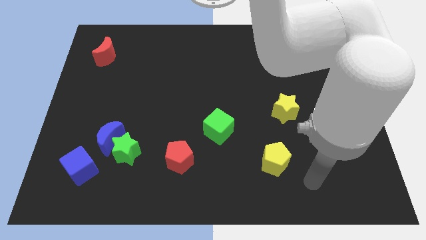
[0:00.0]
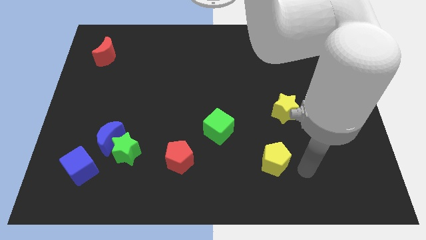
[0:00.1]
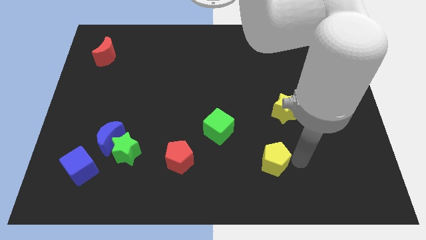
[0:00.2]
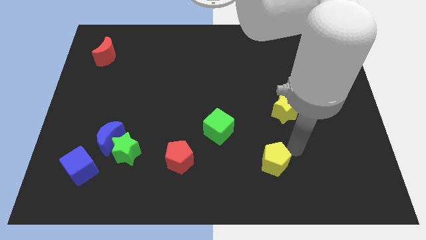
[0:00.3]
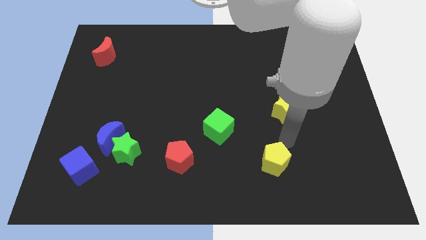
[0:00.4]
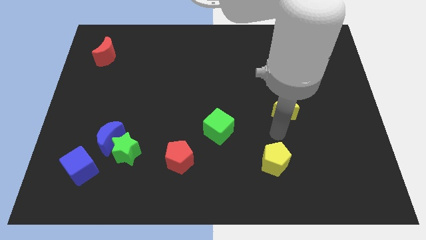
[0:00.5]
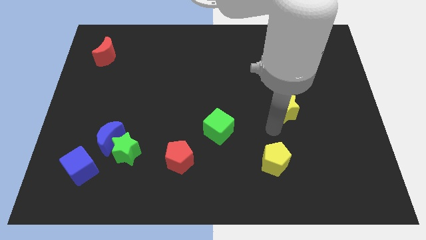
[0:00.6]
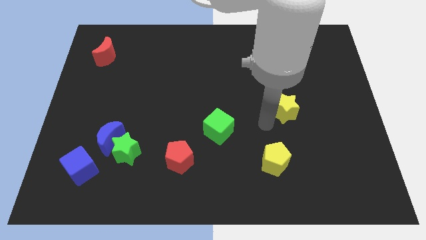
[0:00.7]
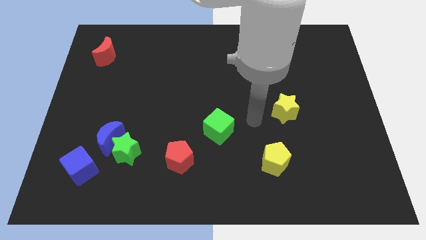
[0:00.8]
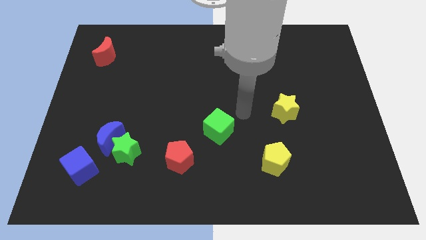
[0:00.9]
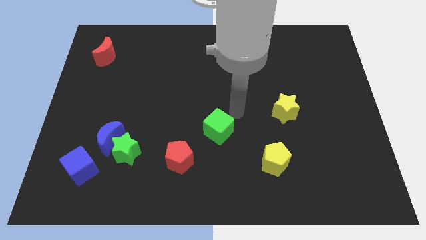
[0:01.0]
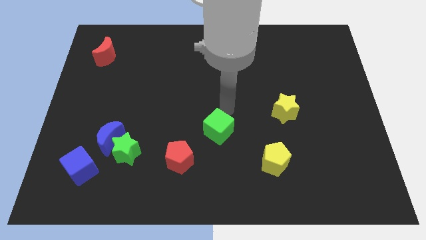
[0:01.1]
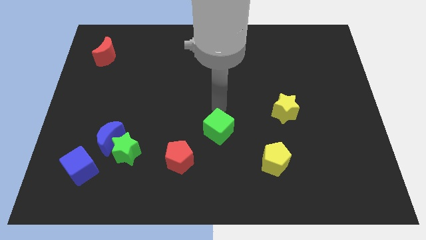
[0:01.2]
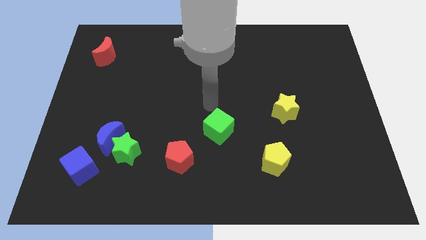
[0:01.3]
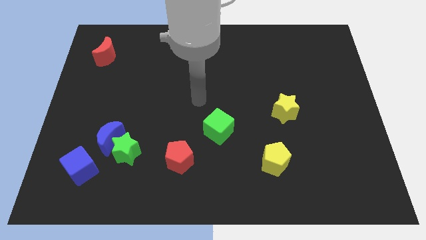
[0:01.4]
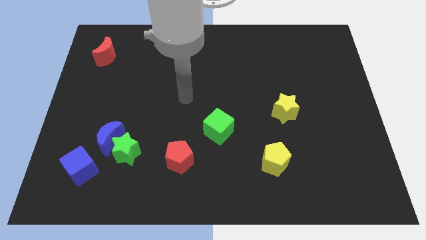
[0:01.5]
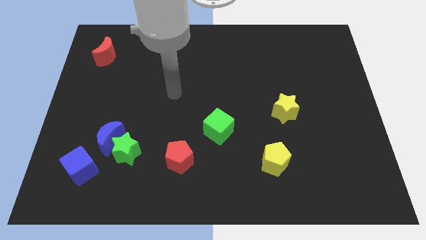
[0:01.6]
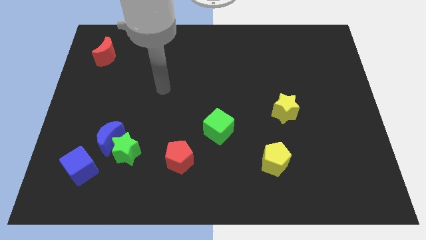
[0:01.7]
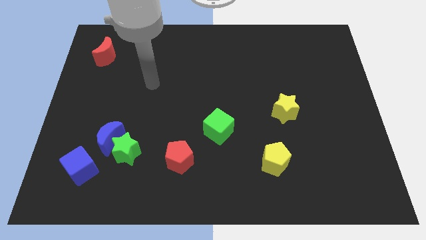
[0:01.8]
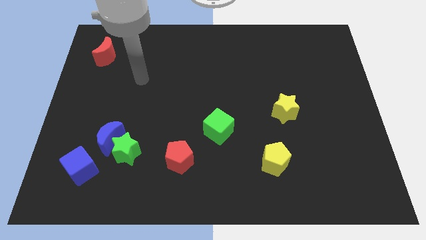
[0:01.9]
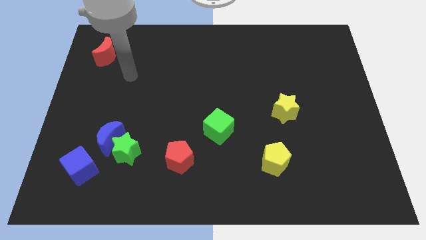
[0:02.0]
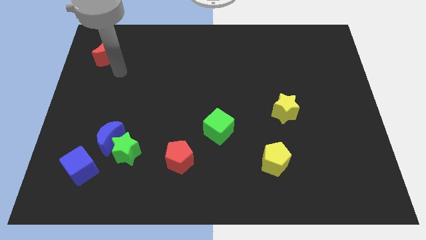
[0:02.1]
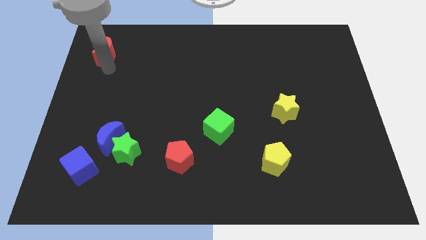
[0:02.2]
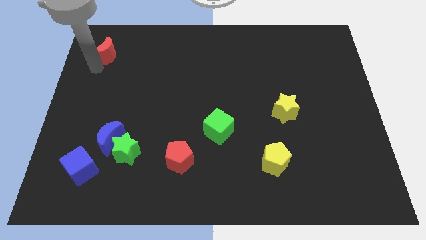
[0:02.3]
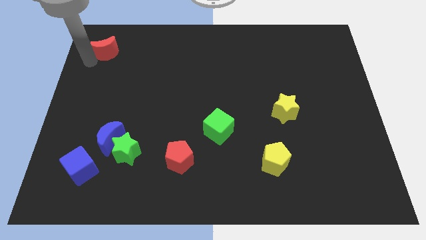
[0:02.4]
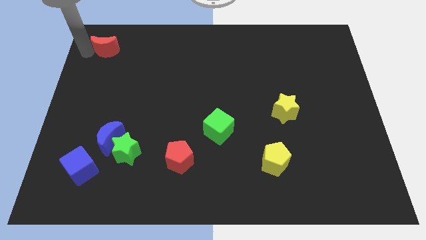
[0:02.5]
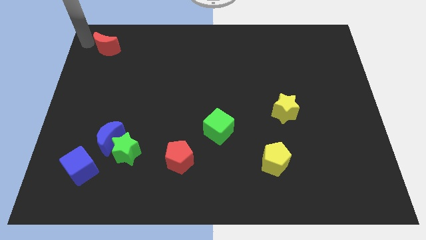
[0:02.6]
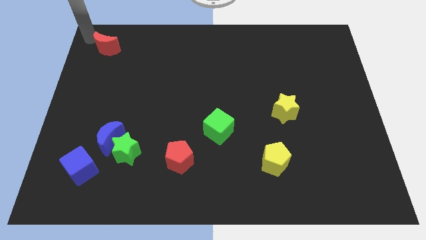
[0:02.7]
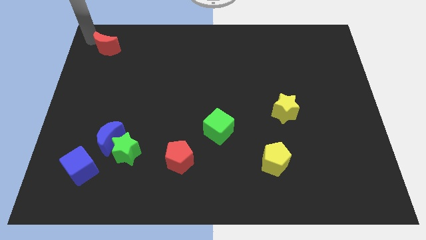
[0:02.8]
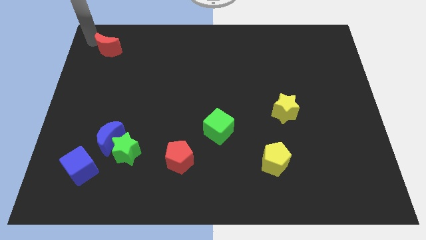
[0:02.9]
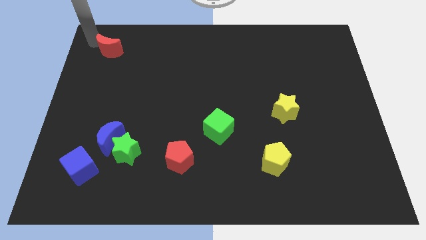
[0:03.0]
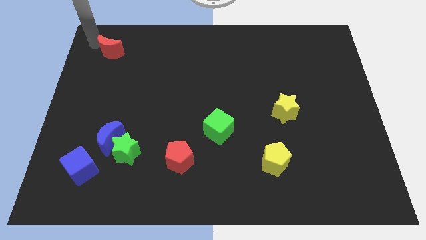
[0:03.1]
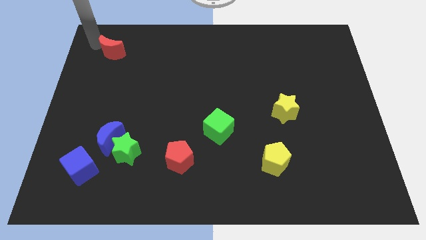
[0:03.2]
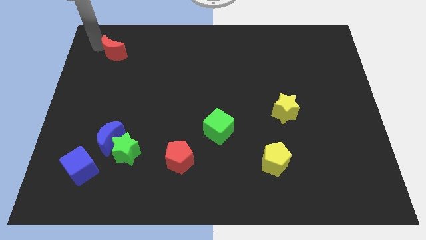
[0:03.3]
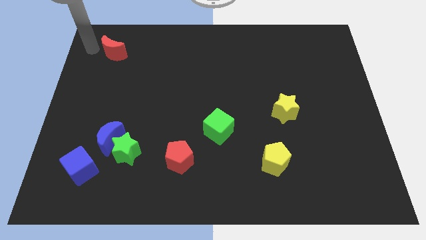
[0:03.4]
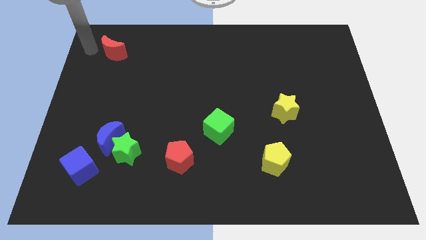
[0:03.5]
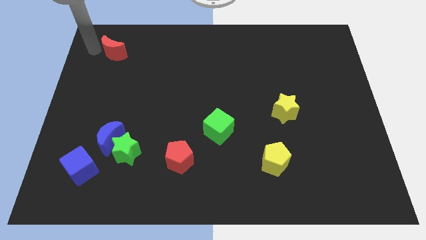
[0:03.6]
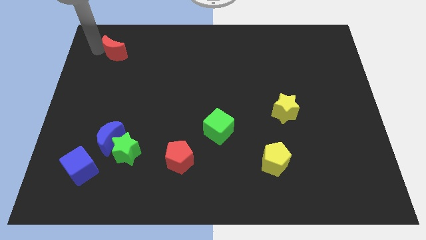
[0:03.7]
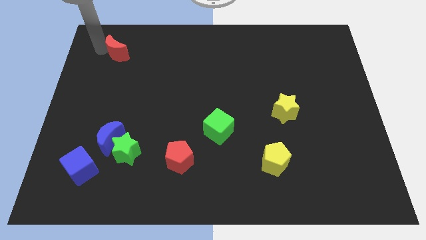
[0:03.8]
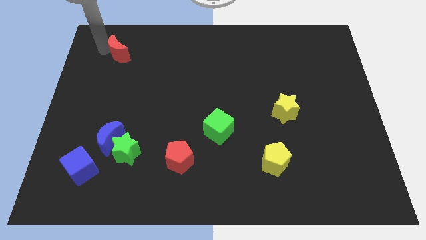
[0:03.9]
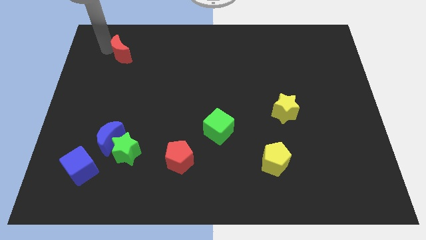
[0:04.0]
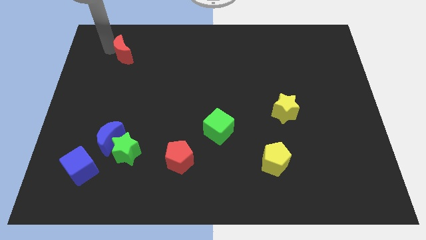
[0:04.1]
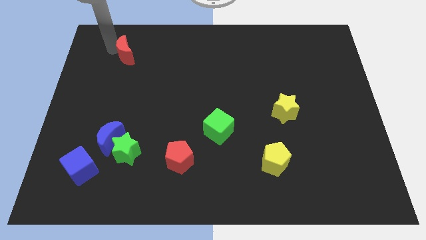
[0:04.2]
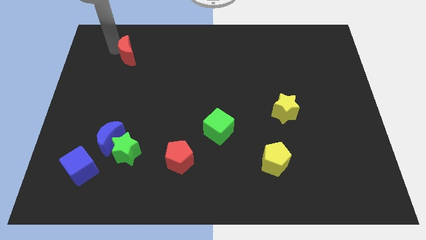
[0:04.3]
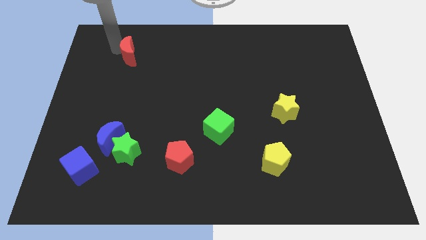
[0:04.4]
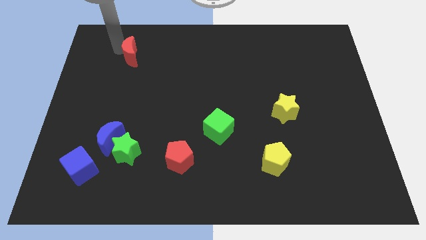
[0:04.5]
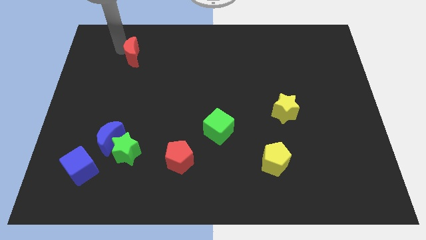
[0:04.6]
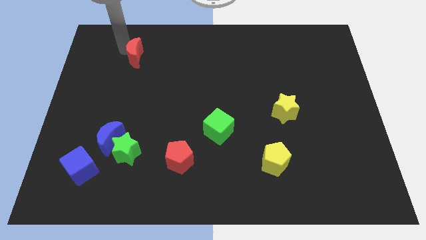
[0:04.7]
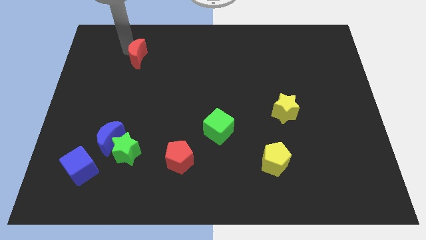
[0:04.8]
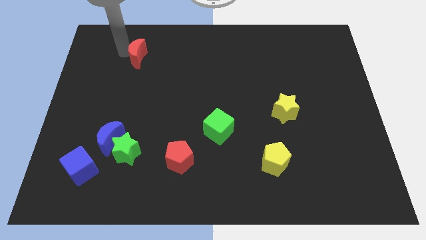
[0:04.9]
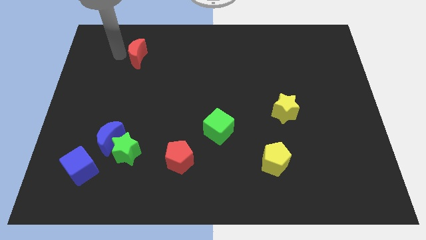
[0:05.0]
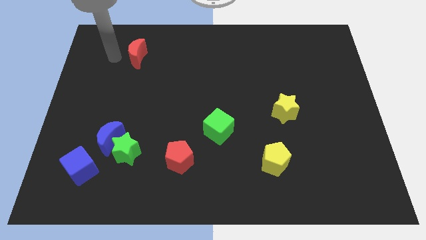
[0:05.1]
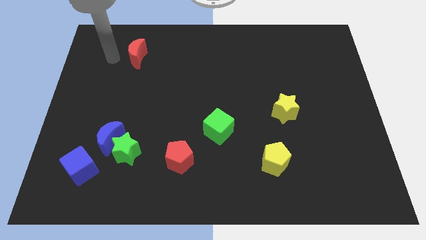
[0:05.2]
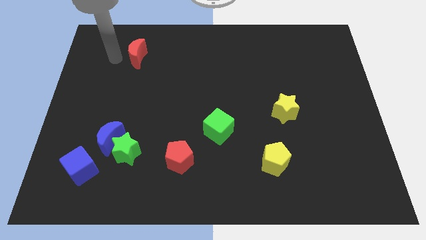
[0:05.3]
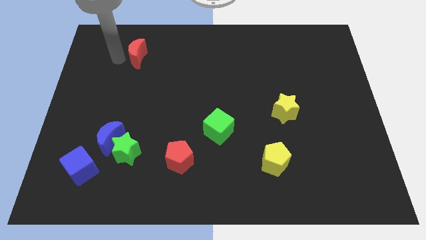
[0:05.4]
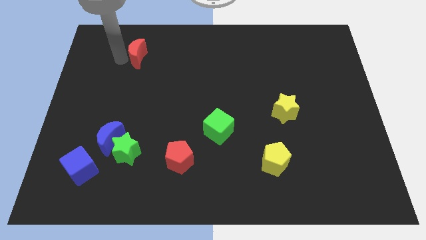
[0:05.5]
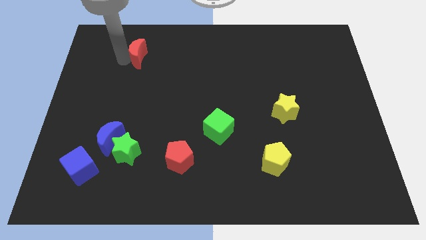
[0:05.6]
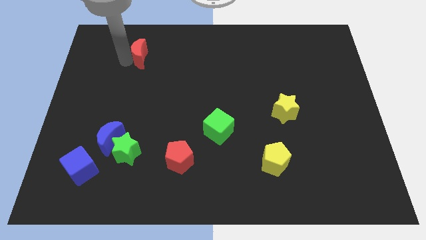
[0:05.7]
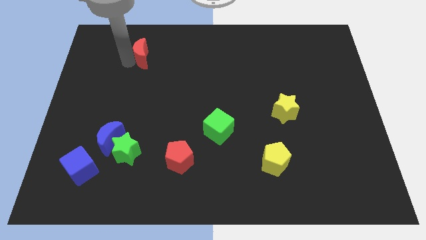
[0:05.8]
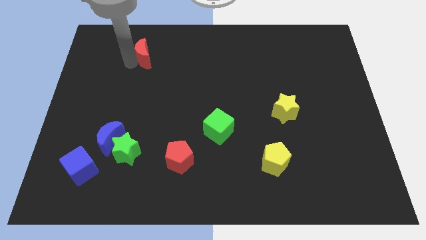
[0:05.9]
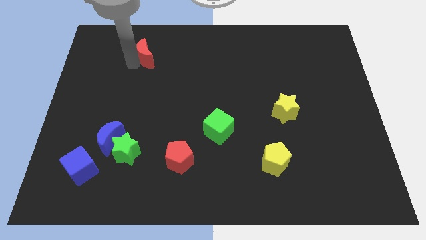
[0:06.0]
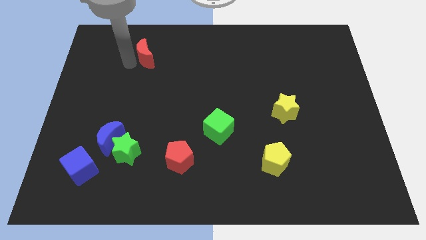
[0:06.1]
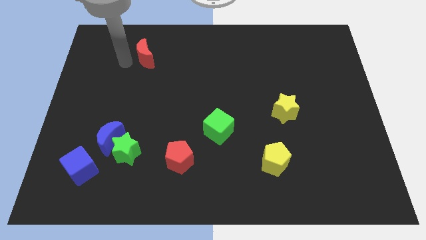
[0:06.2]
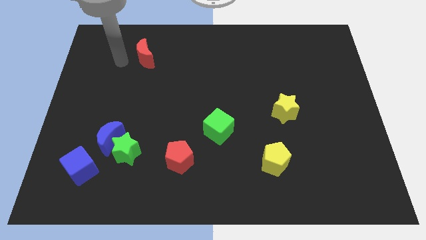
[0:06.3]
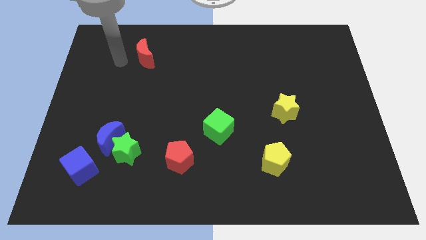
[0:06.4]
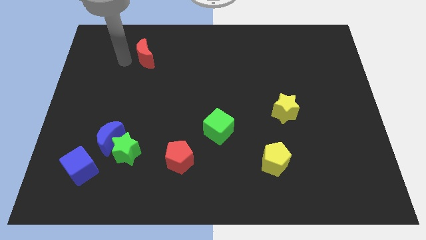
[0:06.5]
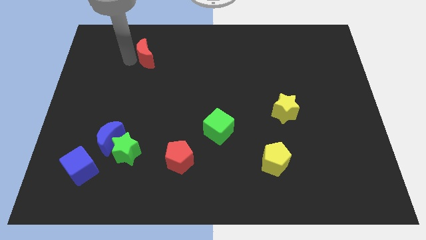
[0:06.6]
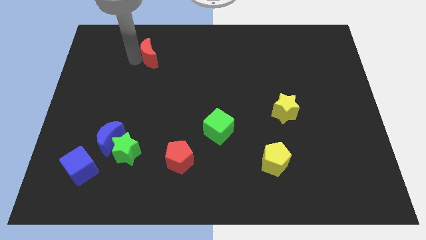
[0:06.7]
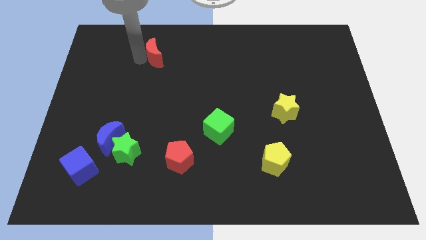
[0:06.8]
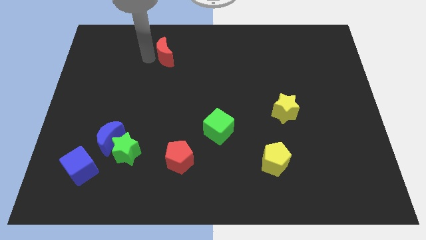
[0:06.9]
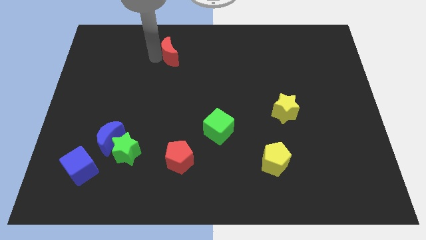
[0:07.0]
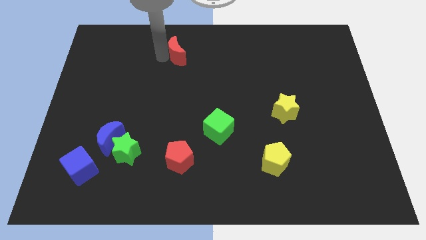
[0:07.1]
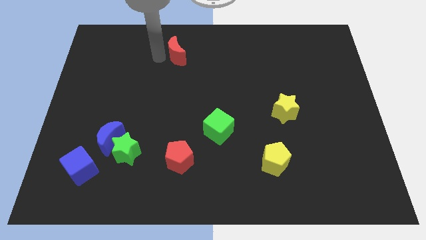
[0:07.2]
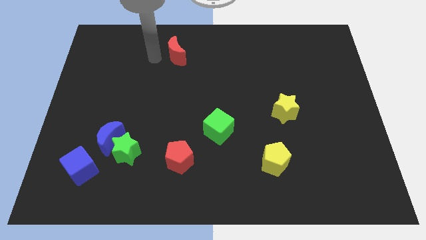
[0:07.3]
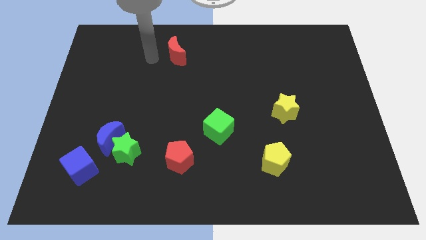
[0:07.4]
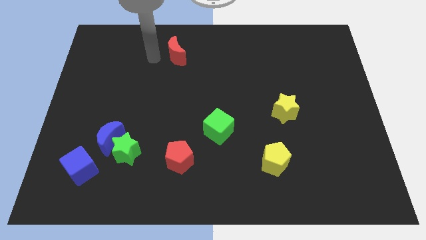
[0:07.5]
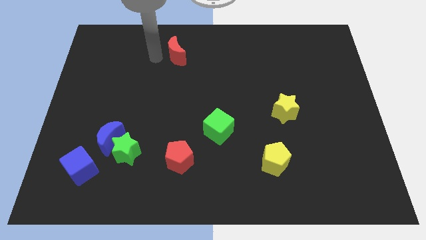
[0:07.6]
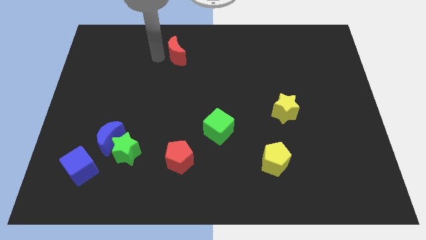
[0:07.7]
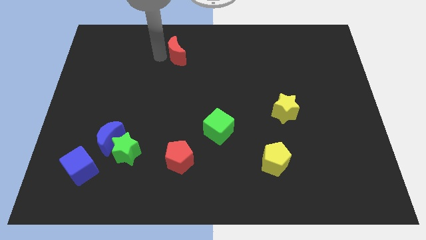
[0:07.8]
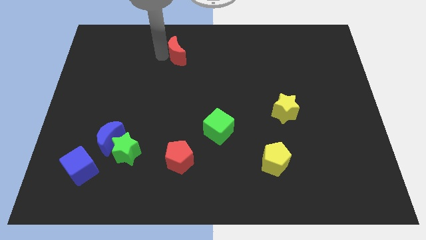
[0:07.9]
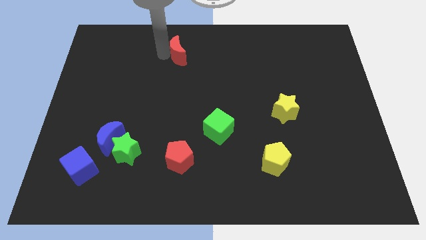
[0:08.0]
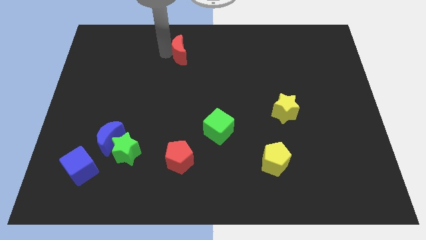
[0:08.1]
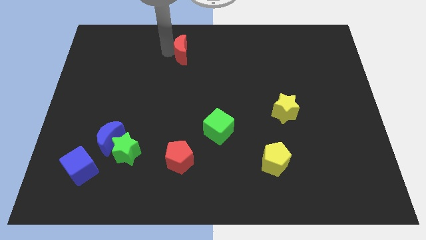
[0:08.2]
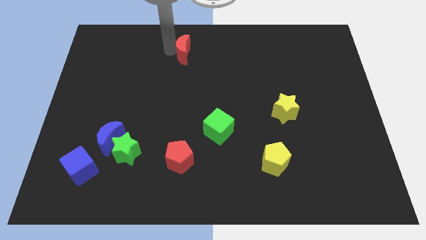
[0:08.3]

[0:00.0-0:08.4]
move the red moon to the right
